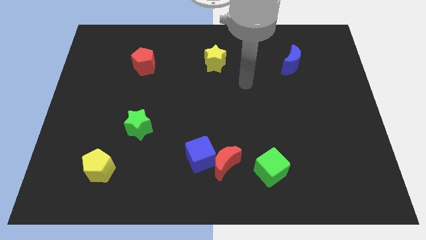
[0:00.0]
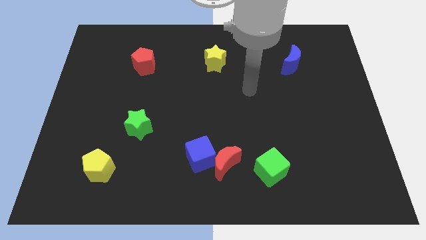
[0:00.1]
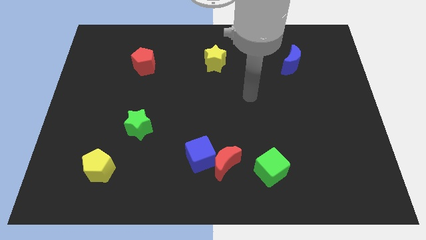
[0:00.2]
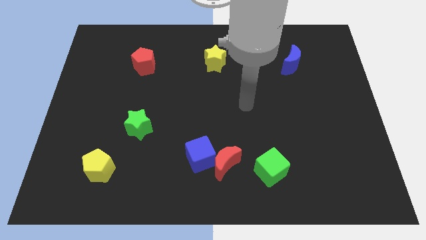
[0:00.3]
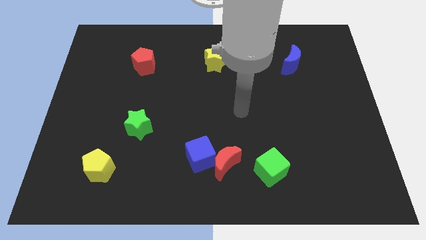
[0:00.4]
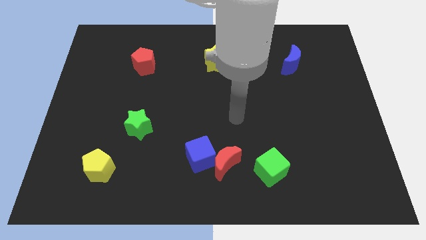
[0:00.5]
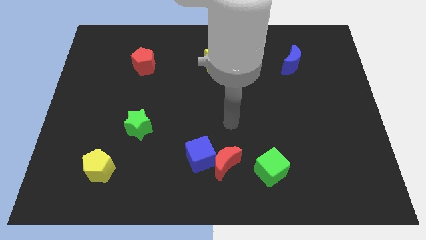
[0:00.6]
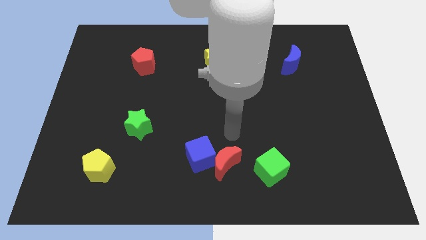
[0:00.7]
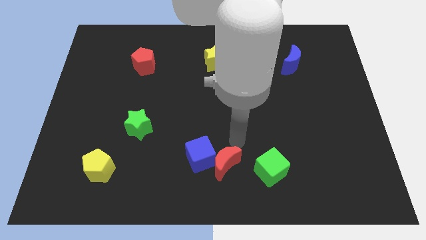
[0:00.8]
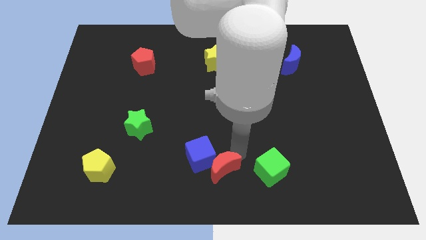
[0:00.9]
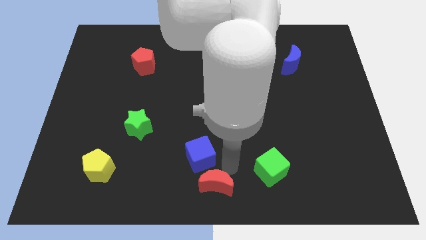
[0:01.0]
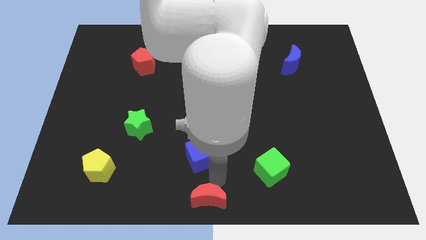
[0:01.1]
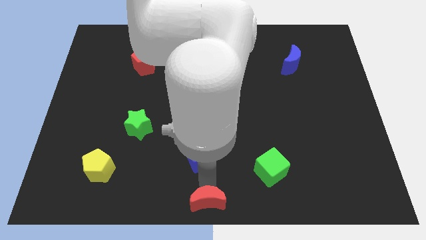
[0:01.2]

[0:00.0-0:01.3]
move the blue cube away from the red moon

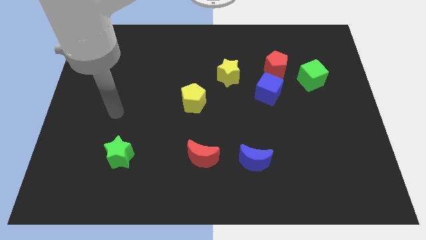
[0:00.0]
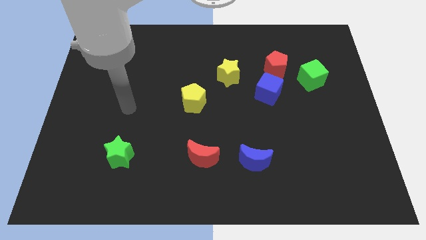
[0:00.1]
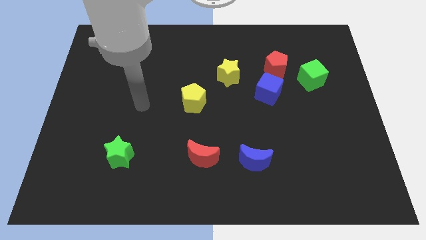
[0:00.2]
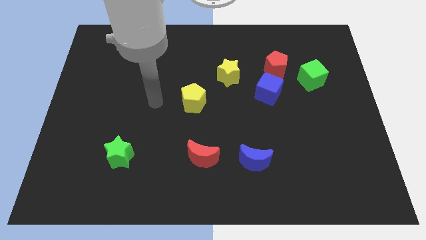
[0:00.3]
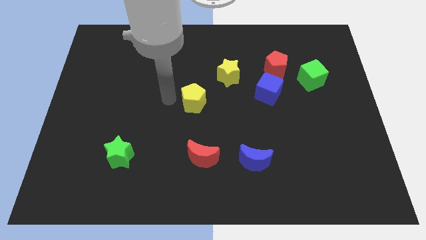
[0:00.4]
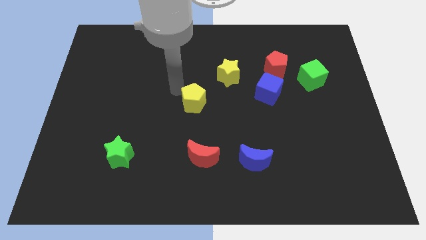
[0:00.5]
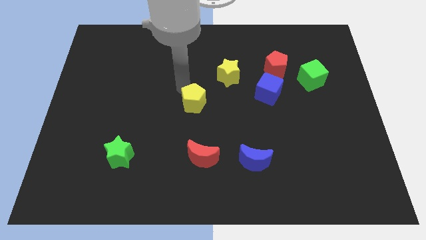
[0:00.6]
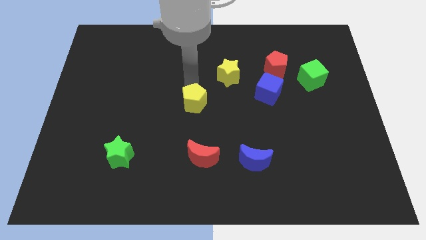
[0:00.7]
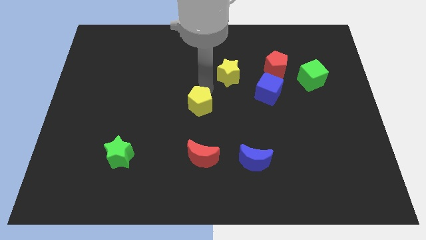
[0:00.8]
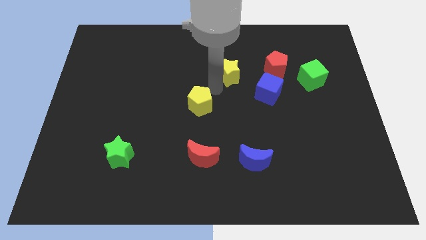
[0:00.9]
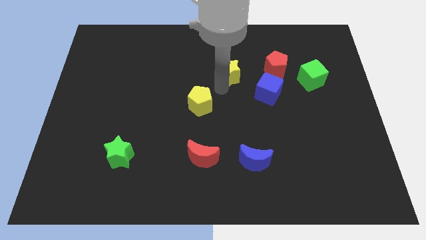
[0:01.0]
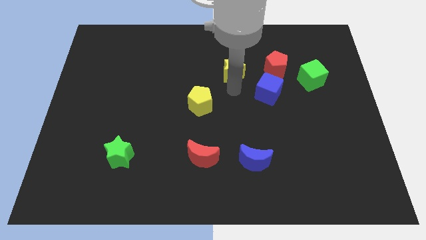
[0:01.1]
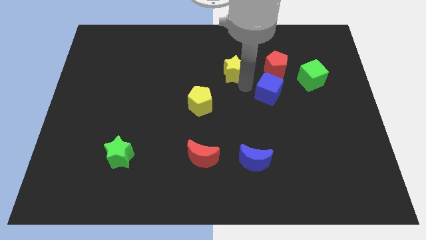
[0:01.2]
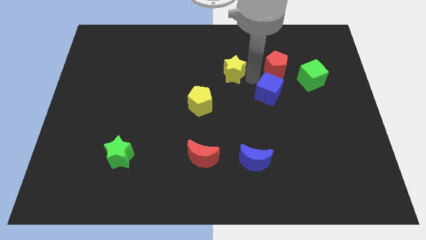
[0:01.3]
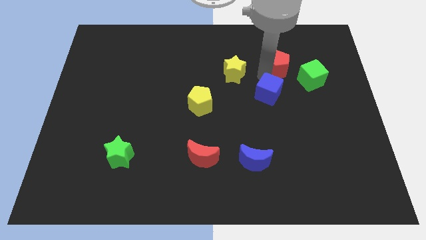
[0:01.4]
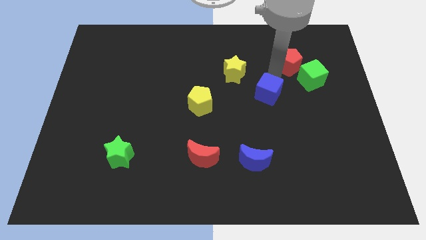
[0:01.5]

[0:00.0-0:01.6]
separate the blue cube from the red pentagon

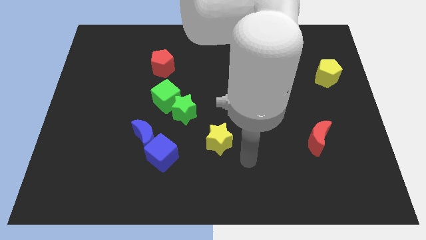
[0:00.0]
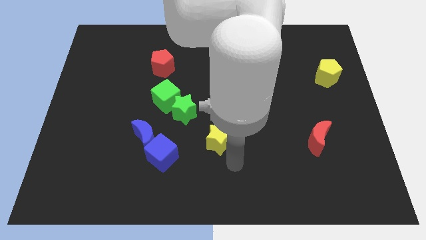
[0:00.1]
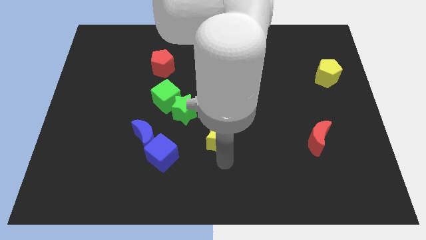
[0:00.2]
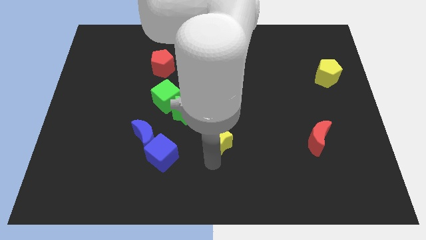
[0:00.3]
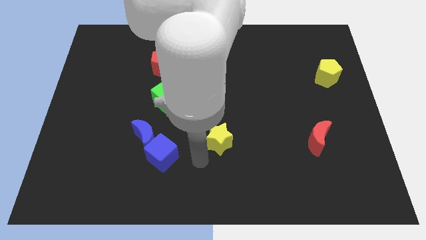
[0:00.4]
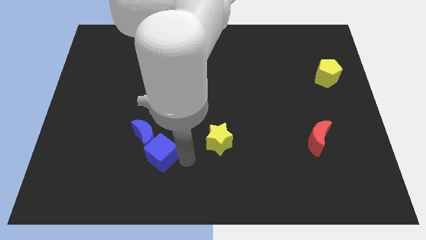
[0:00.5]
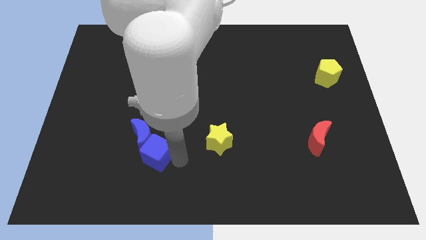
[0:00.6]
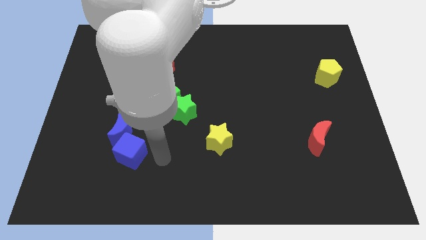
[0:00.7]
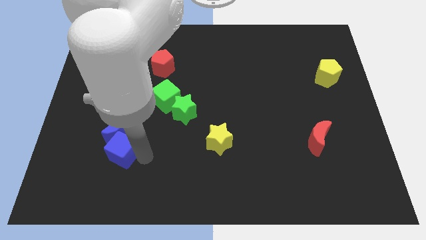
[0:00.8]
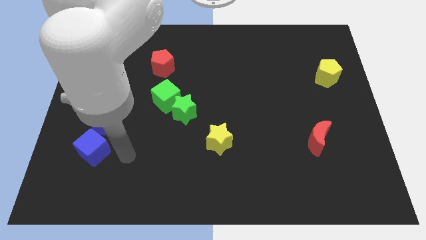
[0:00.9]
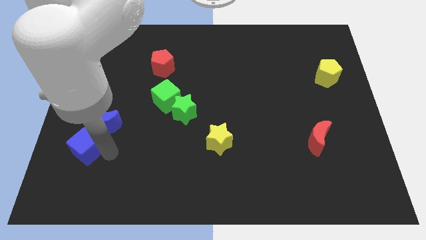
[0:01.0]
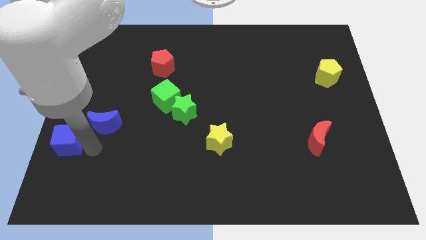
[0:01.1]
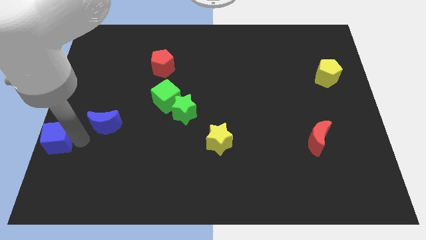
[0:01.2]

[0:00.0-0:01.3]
pull the blue moon apart from the blue cube

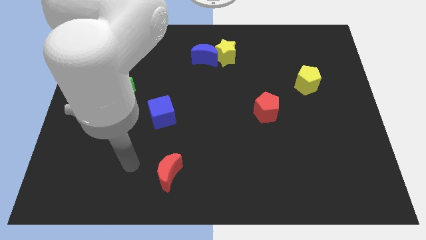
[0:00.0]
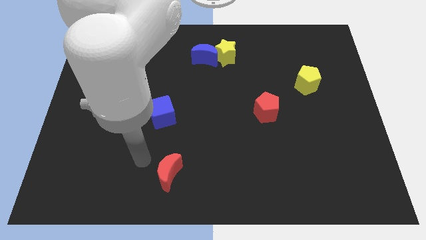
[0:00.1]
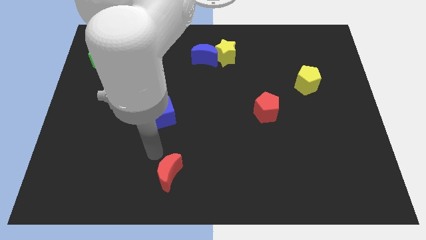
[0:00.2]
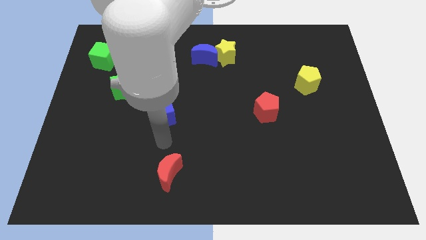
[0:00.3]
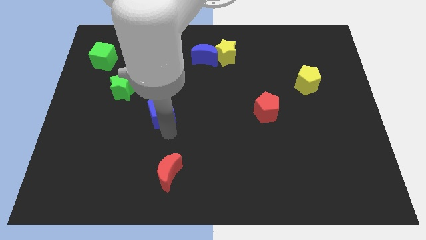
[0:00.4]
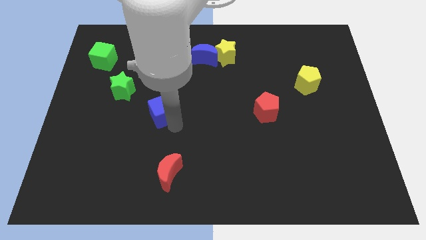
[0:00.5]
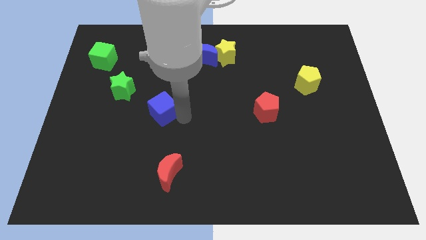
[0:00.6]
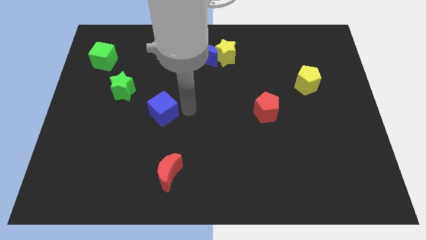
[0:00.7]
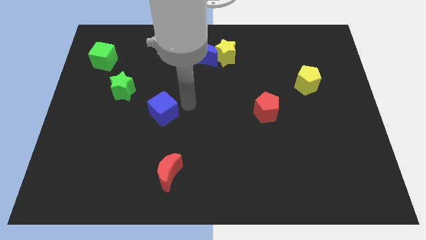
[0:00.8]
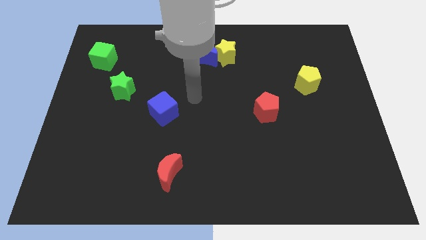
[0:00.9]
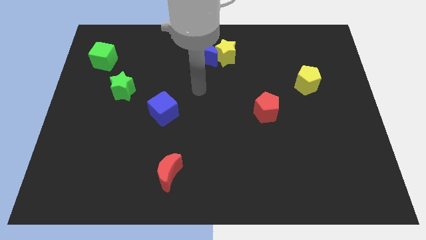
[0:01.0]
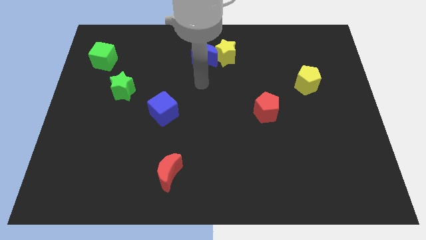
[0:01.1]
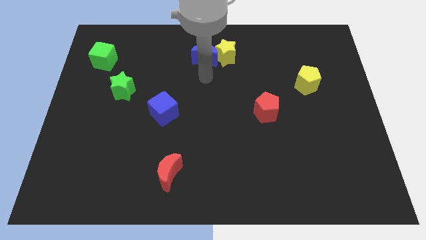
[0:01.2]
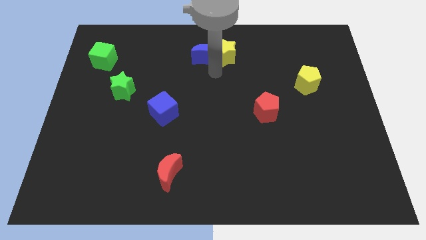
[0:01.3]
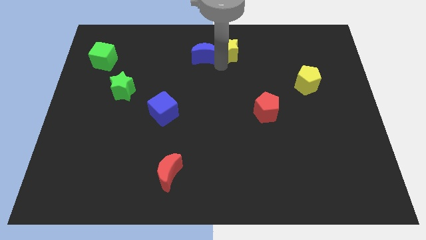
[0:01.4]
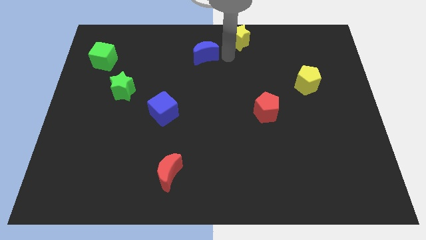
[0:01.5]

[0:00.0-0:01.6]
move the blue moon away from the yellow star

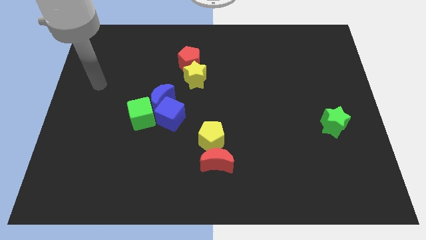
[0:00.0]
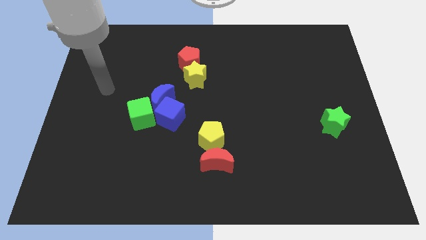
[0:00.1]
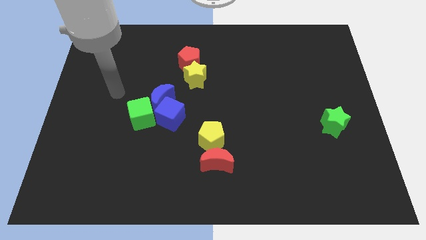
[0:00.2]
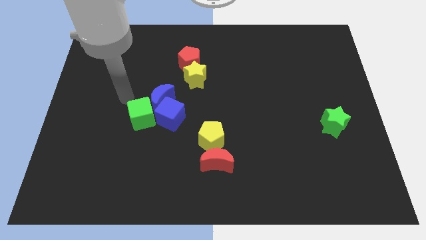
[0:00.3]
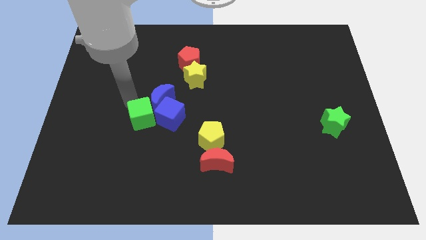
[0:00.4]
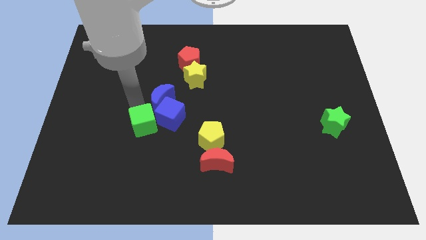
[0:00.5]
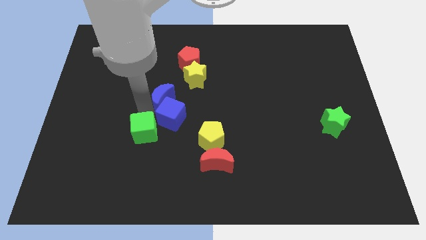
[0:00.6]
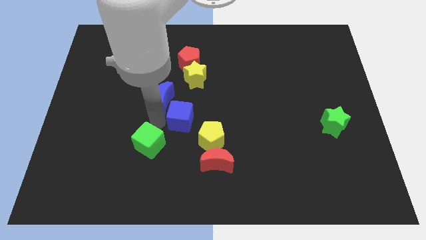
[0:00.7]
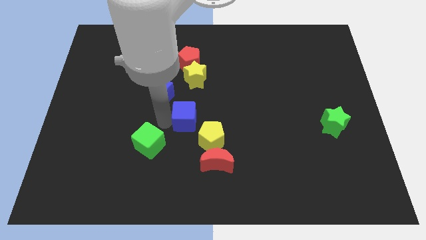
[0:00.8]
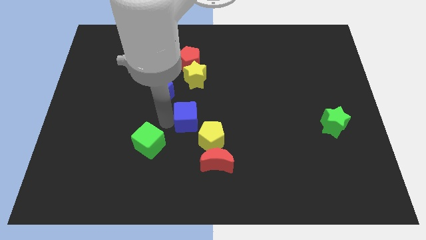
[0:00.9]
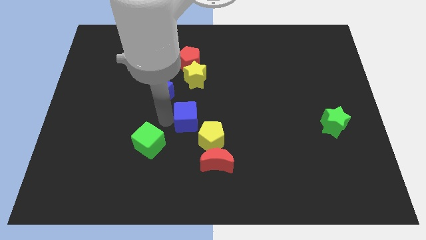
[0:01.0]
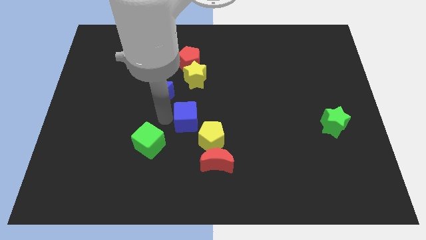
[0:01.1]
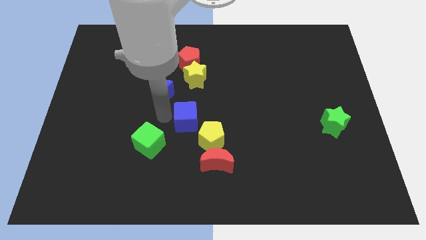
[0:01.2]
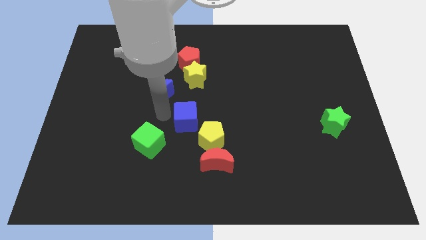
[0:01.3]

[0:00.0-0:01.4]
pull the blue moon apart from the blue cube and green cube

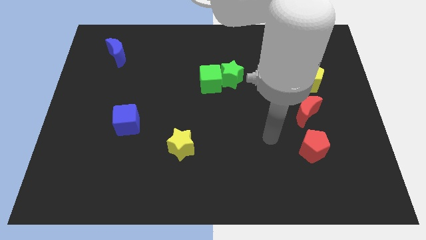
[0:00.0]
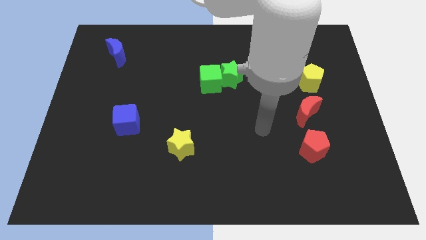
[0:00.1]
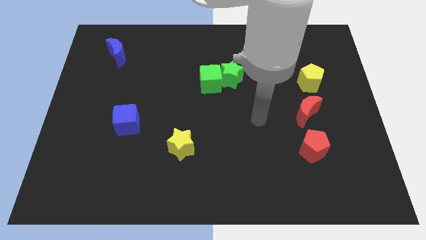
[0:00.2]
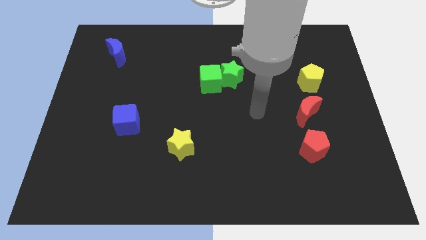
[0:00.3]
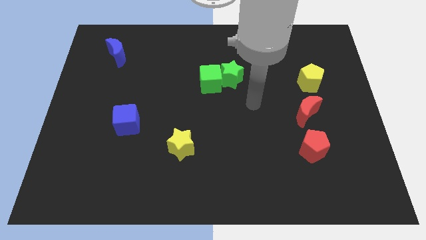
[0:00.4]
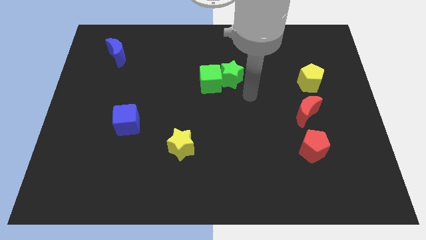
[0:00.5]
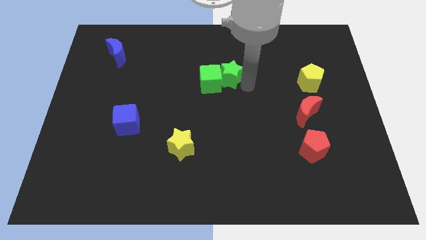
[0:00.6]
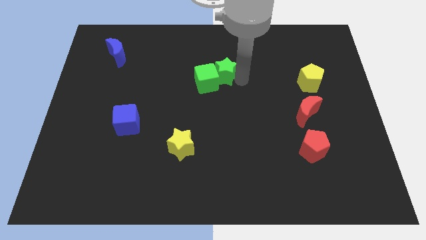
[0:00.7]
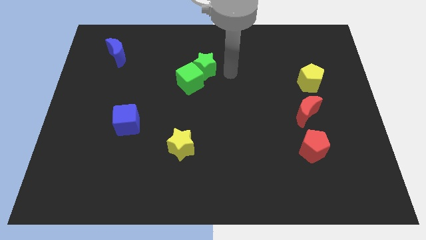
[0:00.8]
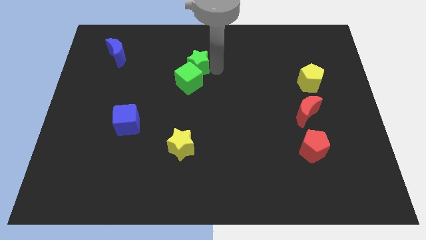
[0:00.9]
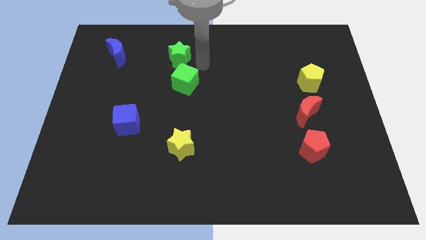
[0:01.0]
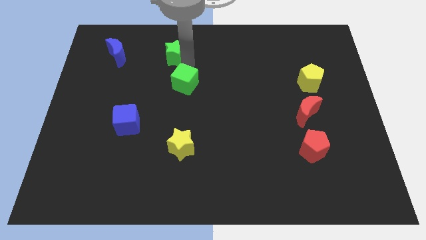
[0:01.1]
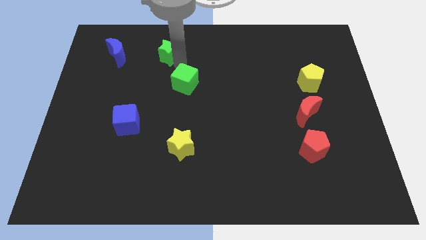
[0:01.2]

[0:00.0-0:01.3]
pull the green cube apart from the green star

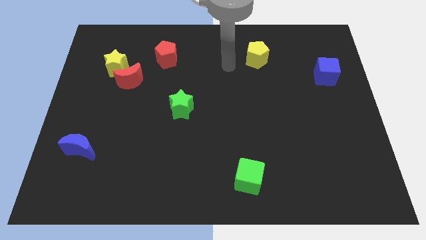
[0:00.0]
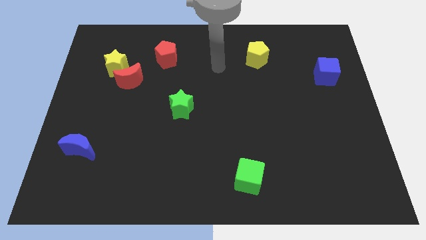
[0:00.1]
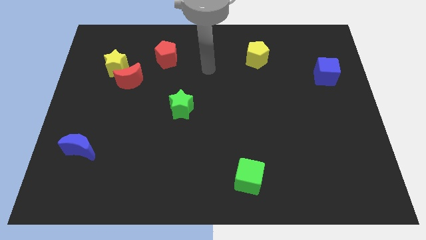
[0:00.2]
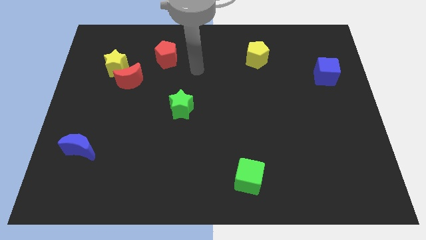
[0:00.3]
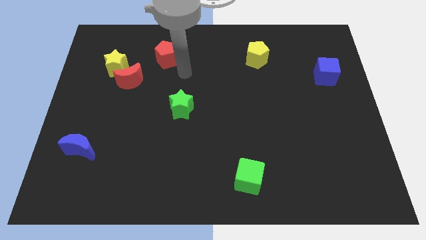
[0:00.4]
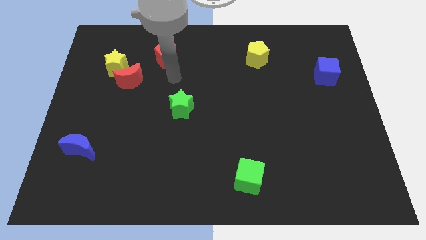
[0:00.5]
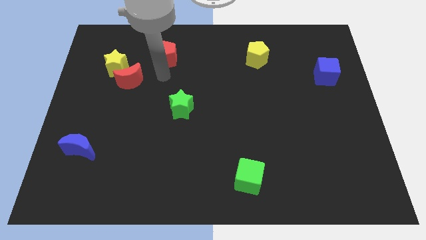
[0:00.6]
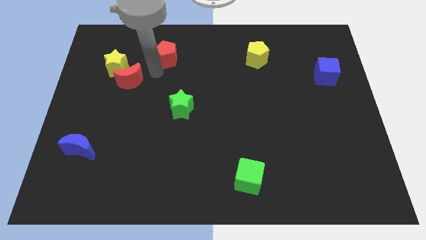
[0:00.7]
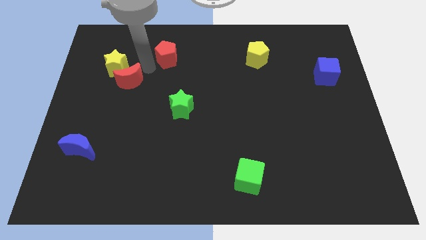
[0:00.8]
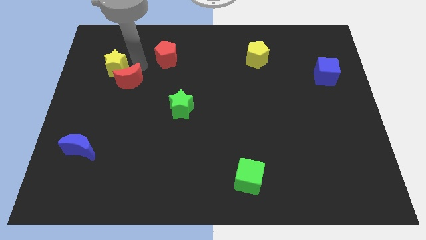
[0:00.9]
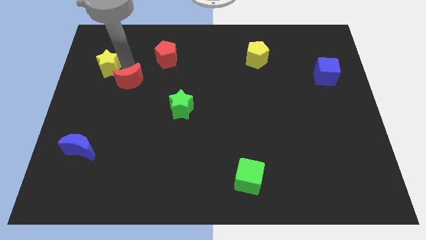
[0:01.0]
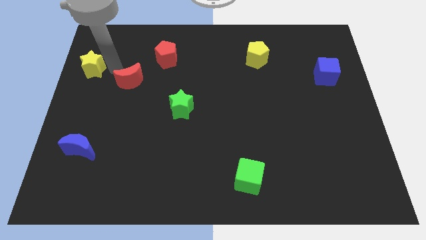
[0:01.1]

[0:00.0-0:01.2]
pull the red moon apart from the yellow star
